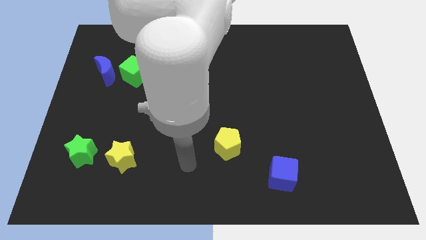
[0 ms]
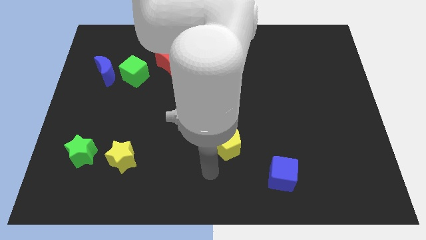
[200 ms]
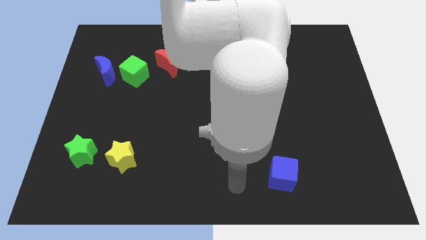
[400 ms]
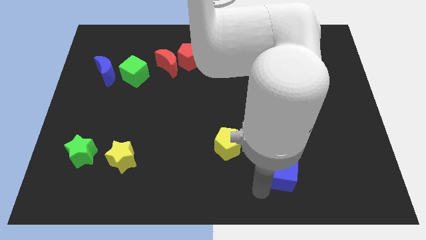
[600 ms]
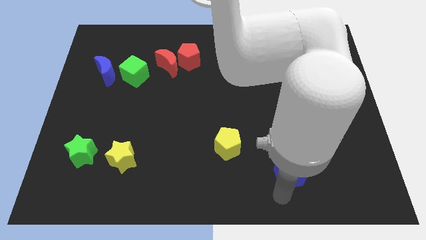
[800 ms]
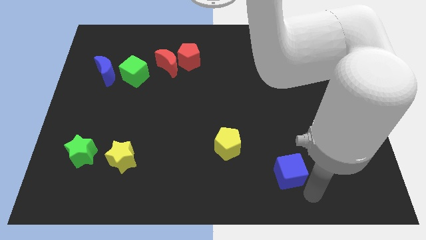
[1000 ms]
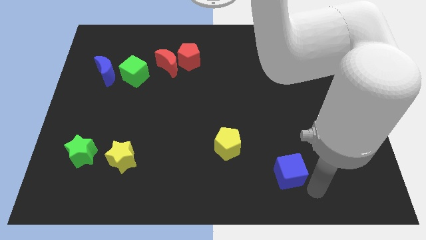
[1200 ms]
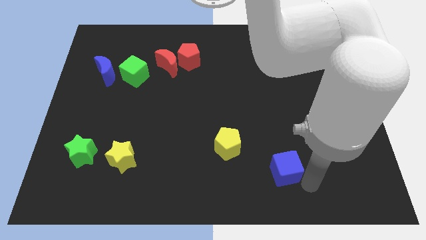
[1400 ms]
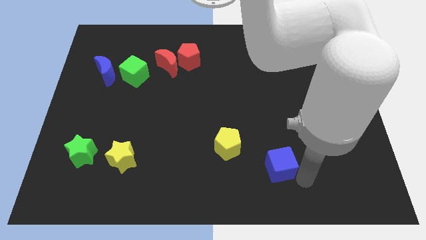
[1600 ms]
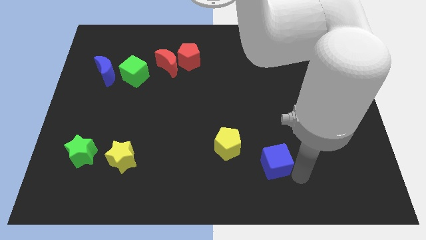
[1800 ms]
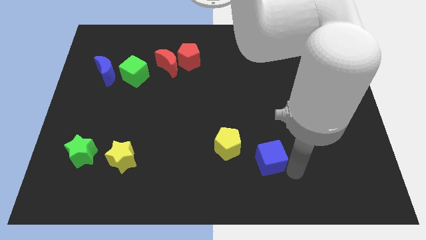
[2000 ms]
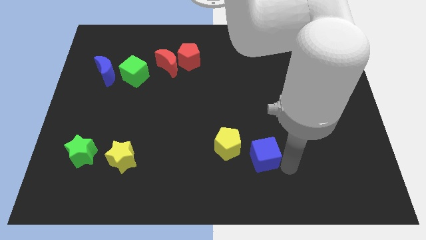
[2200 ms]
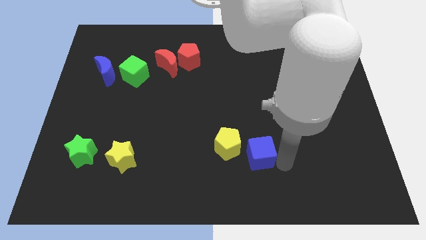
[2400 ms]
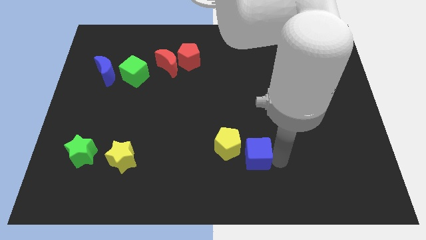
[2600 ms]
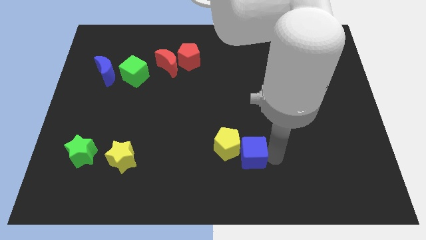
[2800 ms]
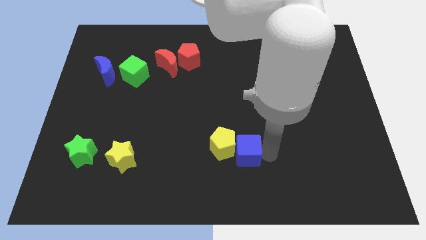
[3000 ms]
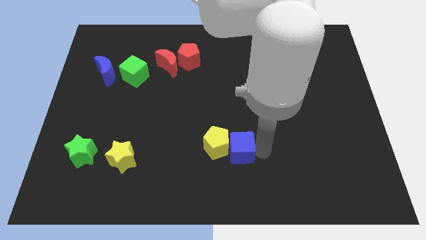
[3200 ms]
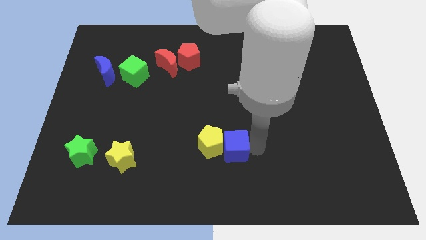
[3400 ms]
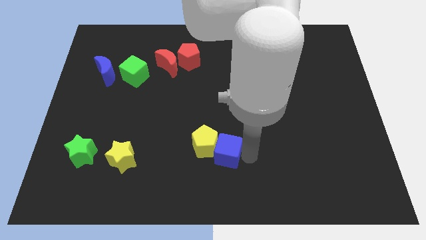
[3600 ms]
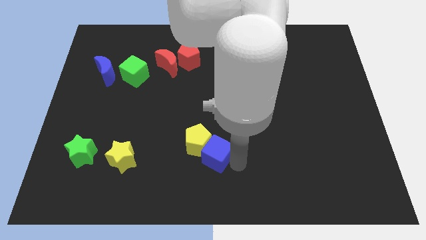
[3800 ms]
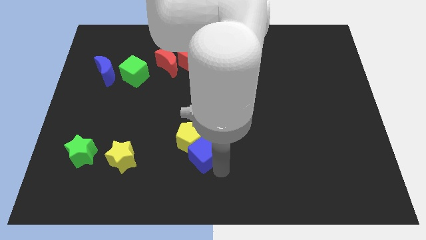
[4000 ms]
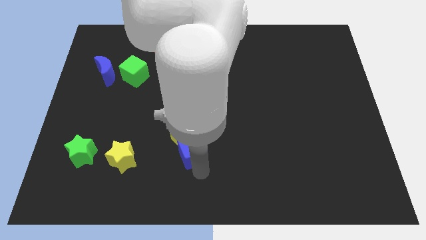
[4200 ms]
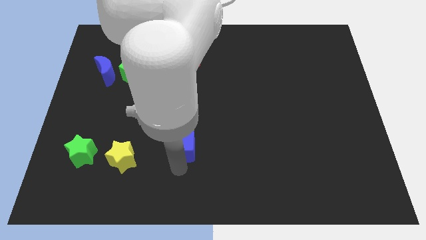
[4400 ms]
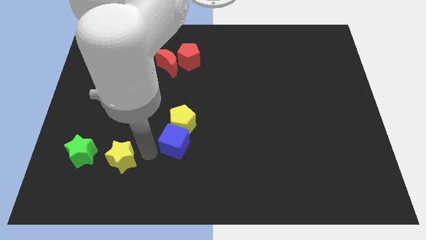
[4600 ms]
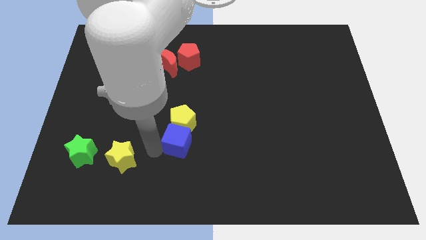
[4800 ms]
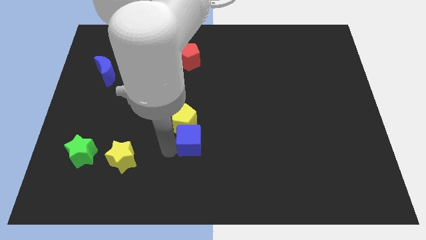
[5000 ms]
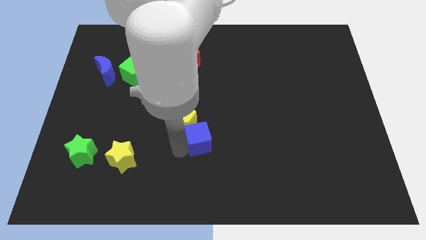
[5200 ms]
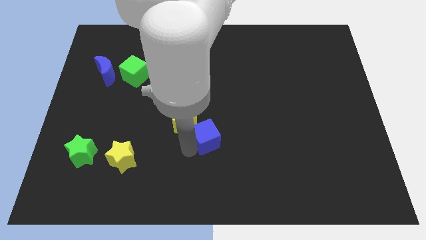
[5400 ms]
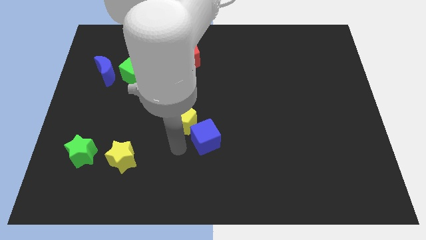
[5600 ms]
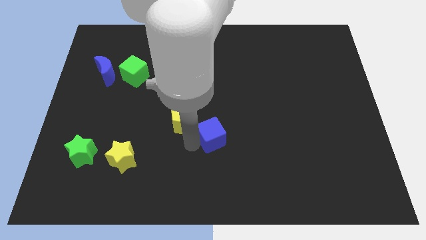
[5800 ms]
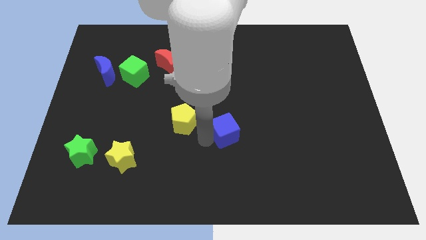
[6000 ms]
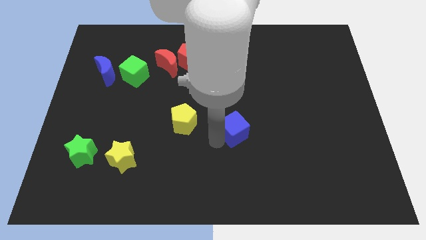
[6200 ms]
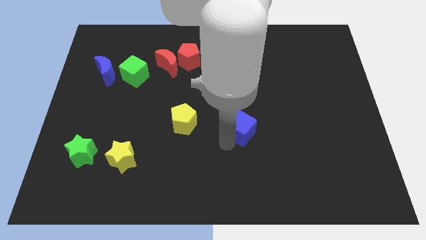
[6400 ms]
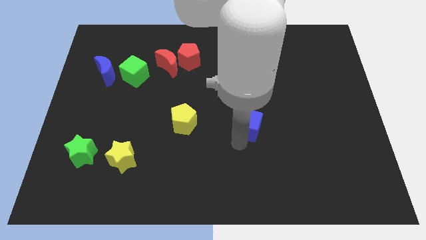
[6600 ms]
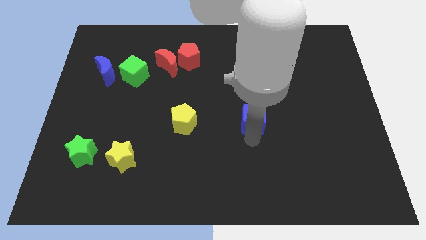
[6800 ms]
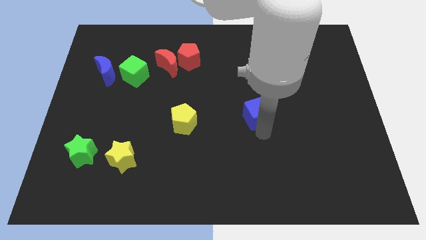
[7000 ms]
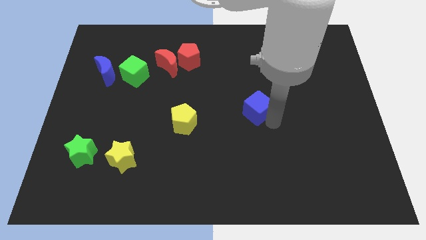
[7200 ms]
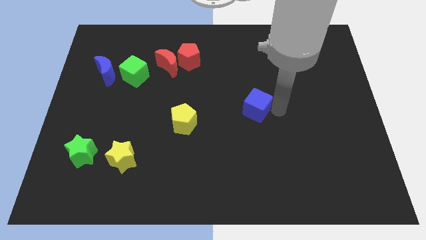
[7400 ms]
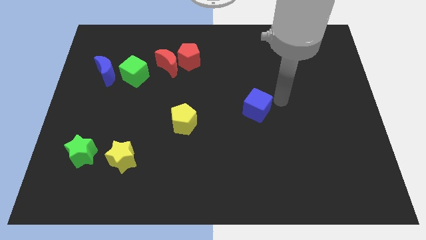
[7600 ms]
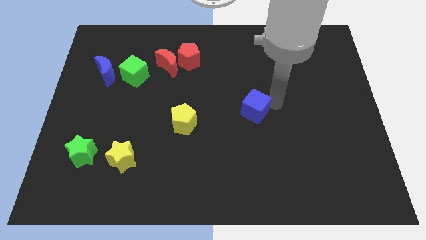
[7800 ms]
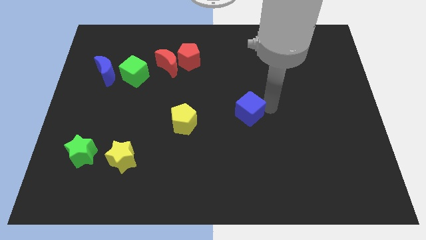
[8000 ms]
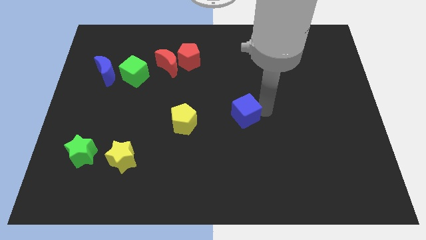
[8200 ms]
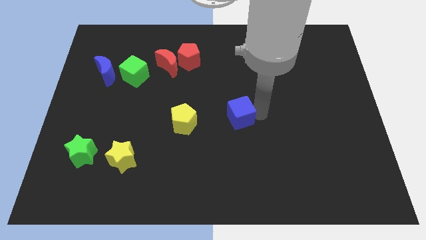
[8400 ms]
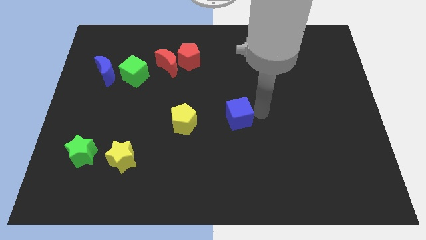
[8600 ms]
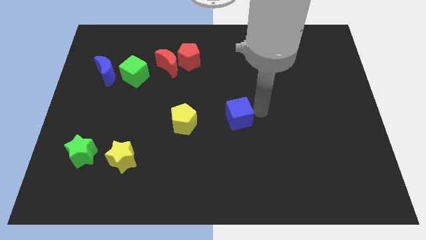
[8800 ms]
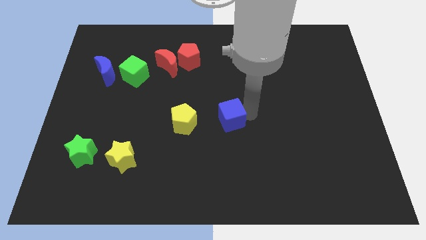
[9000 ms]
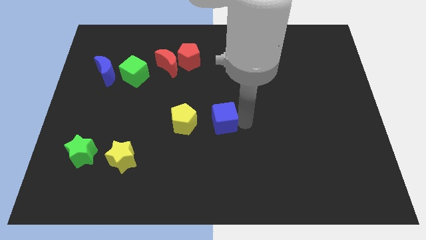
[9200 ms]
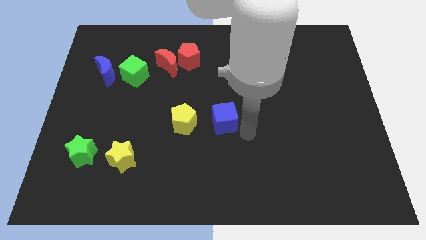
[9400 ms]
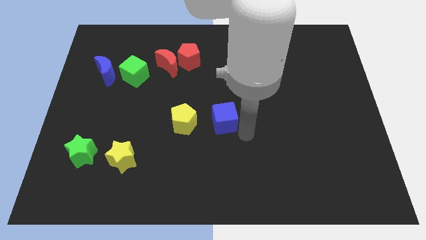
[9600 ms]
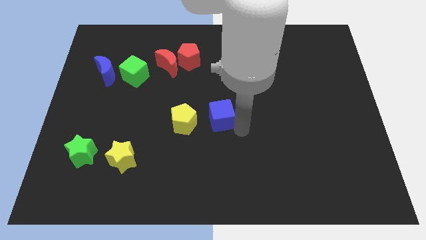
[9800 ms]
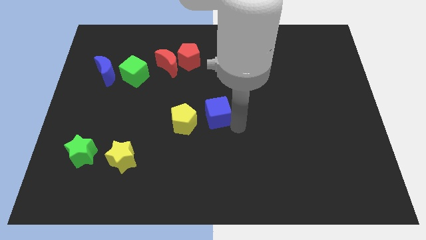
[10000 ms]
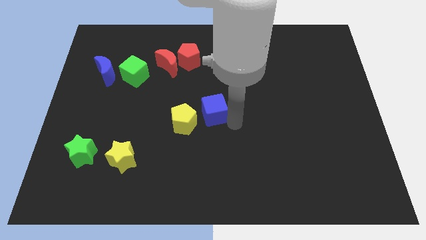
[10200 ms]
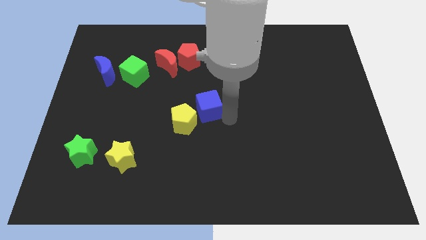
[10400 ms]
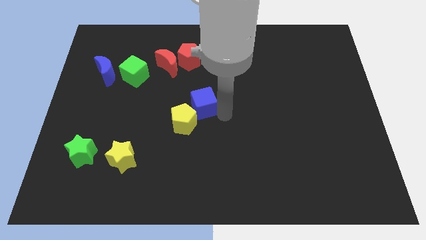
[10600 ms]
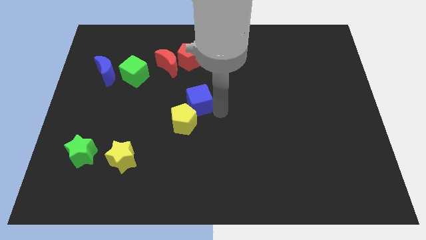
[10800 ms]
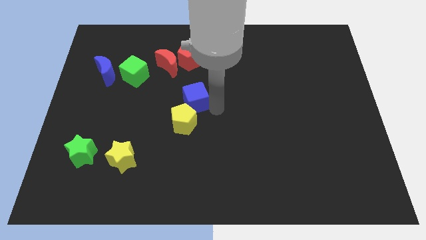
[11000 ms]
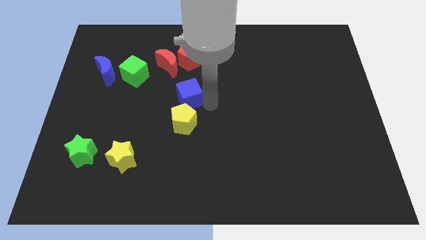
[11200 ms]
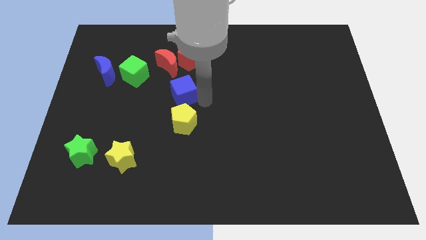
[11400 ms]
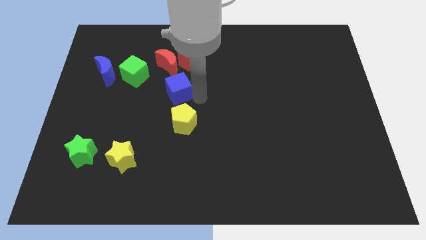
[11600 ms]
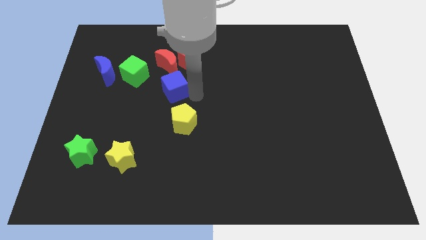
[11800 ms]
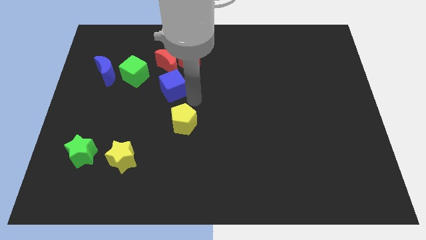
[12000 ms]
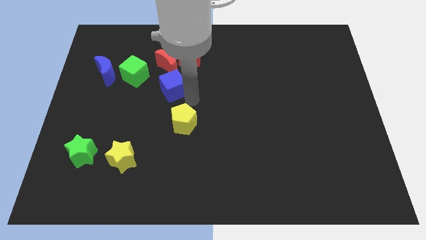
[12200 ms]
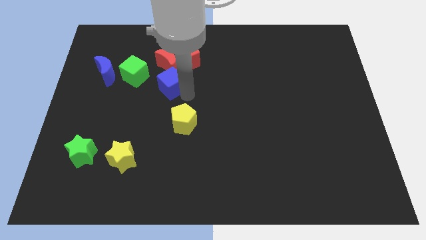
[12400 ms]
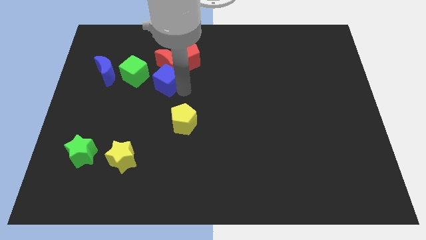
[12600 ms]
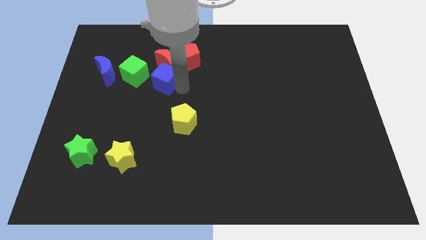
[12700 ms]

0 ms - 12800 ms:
put the blue cube just right of the blue moon
